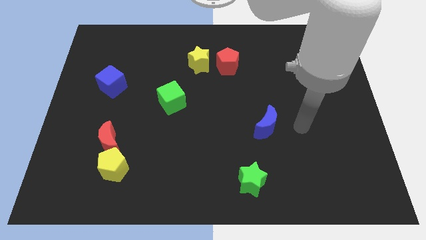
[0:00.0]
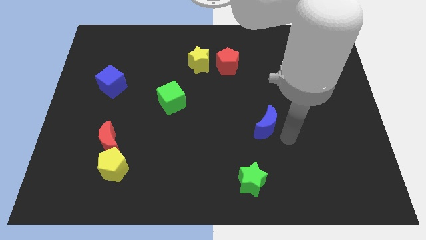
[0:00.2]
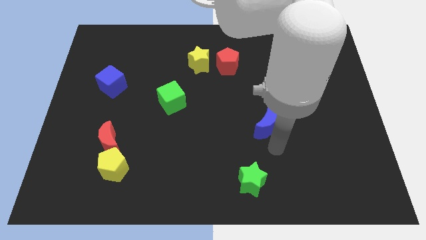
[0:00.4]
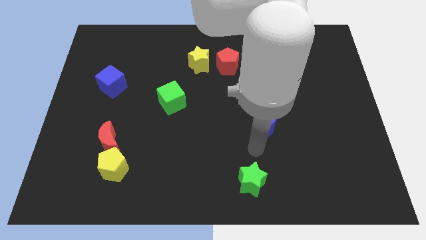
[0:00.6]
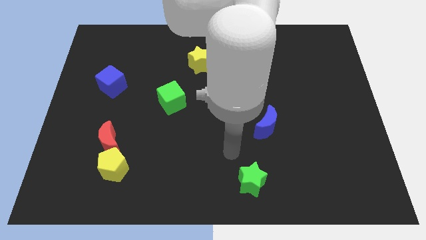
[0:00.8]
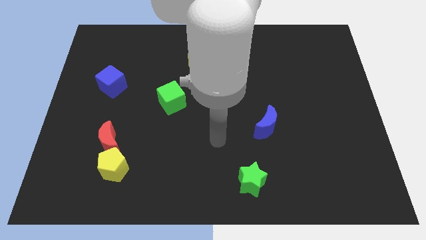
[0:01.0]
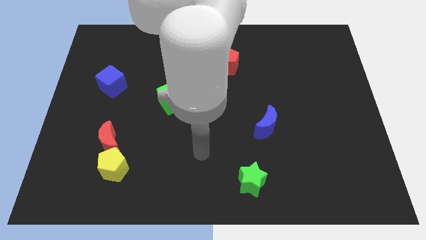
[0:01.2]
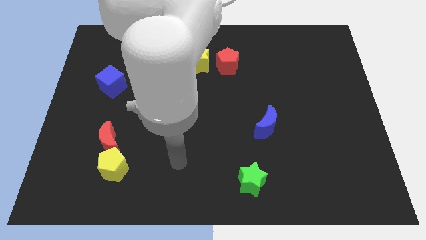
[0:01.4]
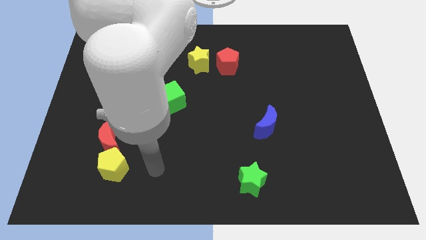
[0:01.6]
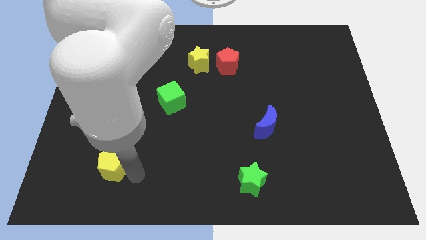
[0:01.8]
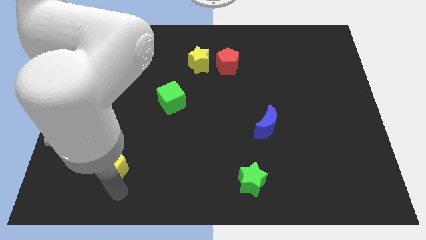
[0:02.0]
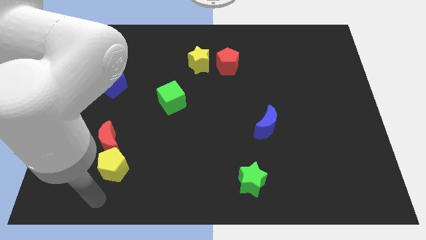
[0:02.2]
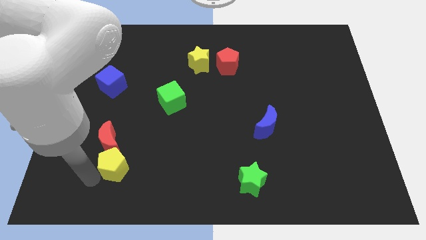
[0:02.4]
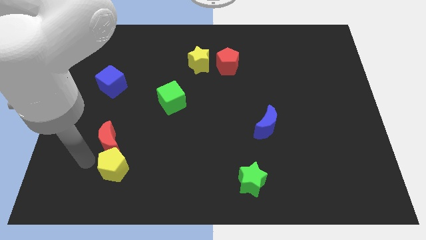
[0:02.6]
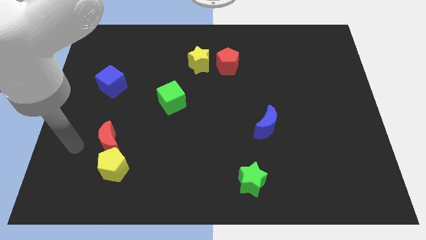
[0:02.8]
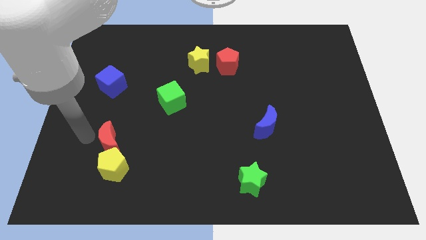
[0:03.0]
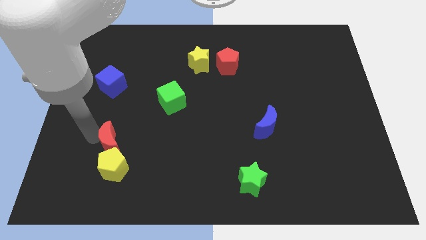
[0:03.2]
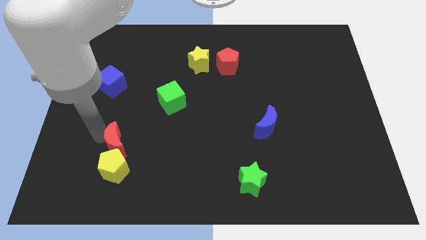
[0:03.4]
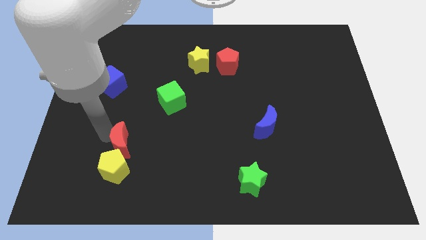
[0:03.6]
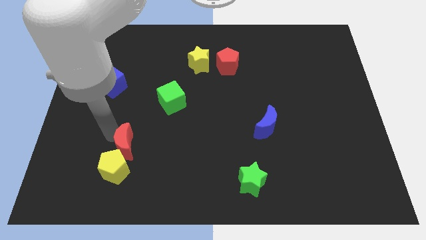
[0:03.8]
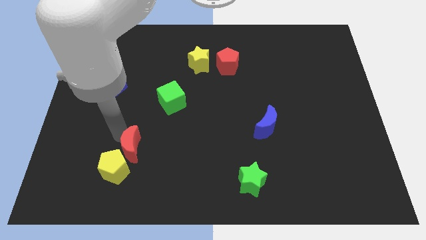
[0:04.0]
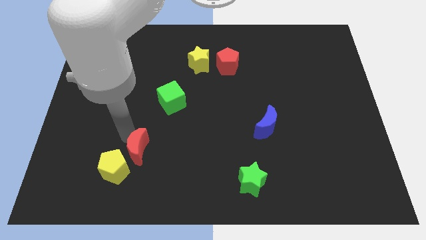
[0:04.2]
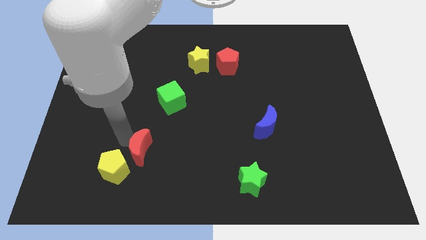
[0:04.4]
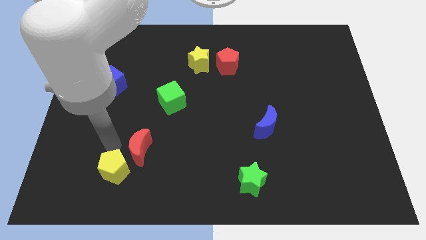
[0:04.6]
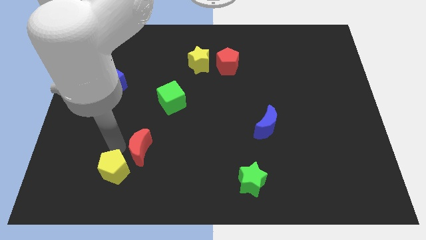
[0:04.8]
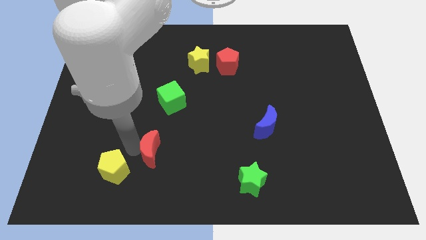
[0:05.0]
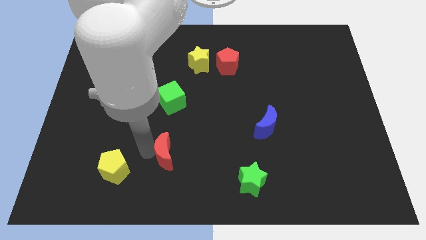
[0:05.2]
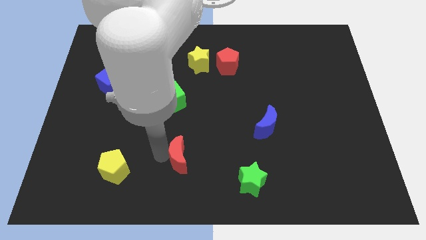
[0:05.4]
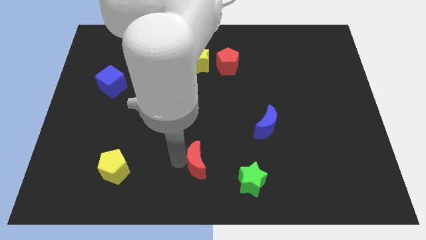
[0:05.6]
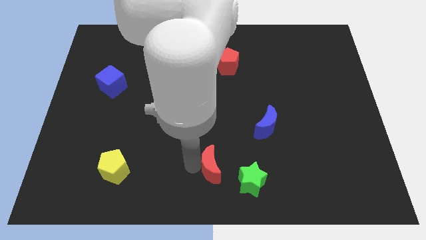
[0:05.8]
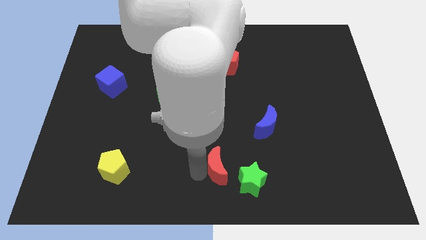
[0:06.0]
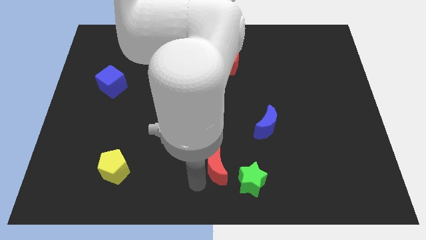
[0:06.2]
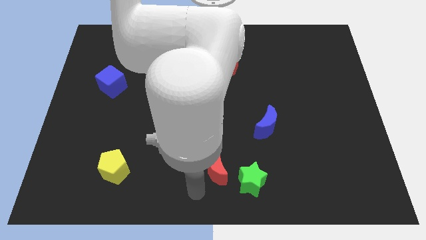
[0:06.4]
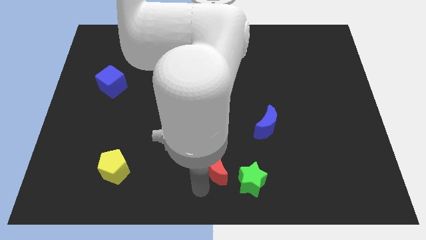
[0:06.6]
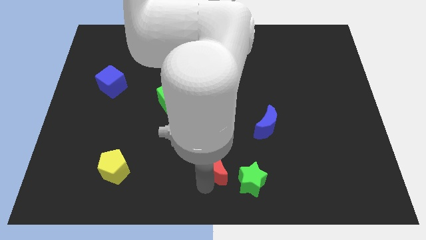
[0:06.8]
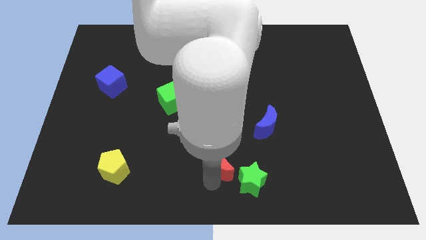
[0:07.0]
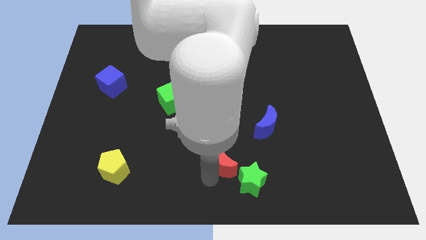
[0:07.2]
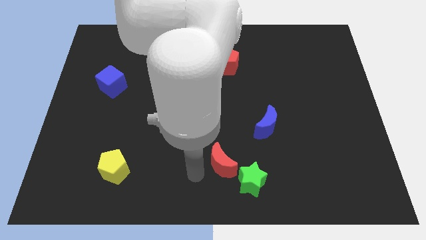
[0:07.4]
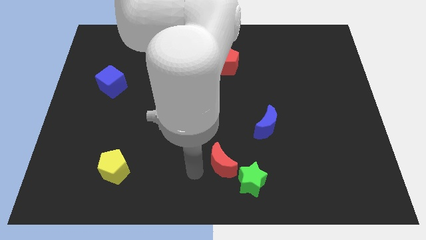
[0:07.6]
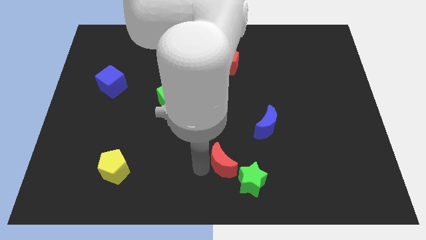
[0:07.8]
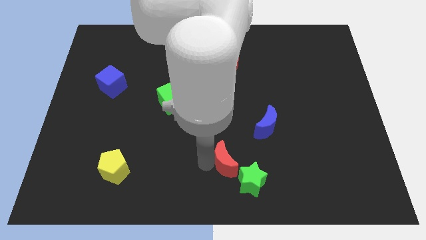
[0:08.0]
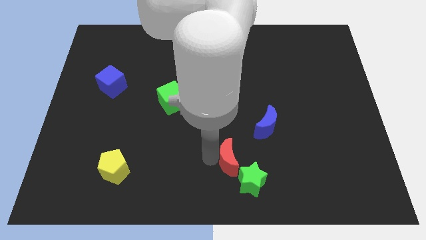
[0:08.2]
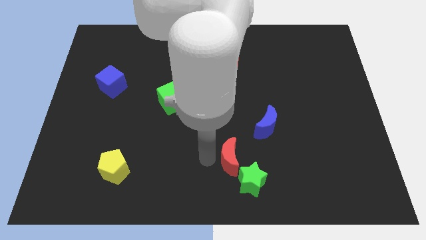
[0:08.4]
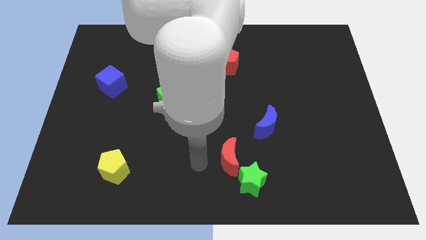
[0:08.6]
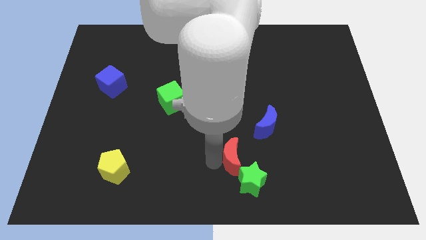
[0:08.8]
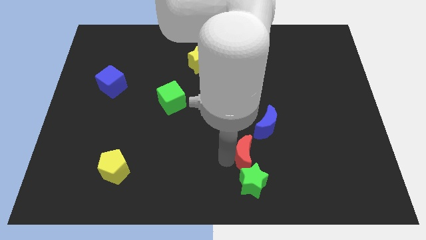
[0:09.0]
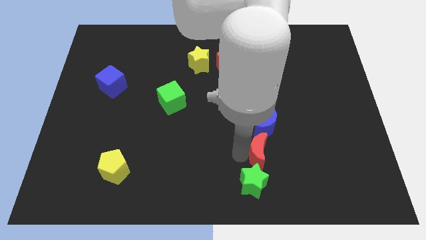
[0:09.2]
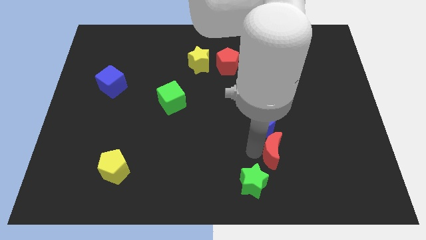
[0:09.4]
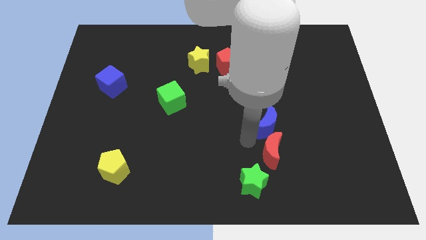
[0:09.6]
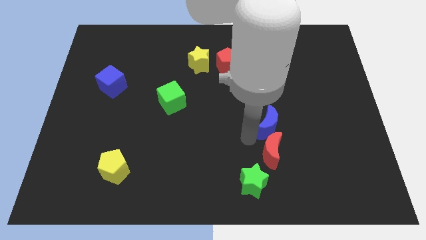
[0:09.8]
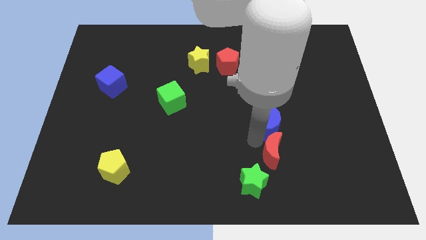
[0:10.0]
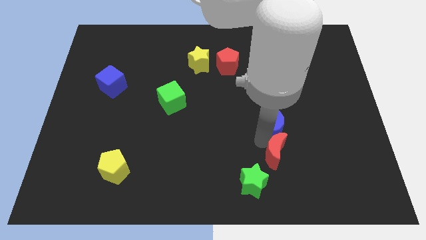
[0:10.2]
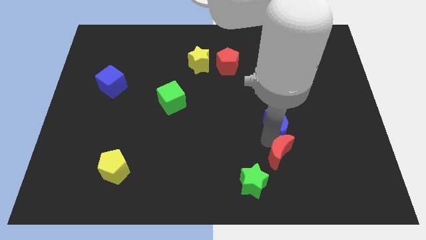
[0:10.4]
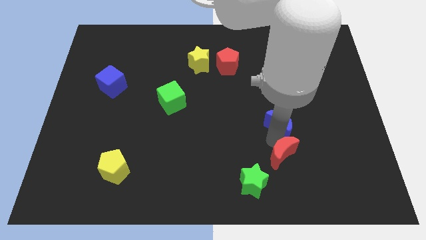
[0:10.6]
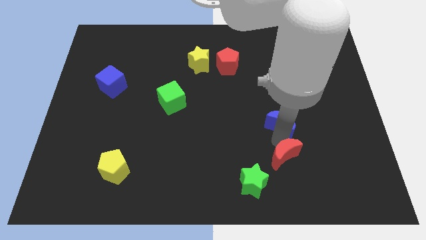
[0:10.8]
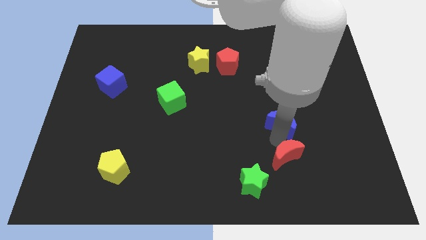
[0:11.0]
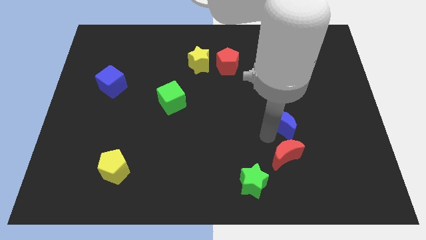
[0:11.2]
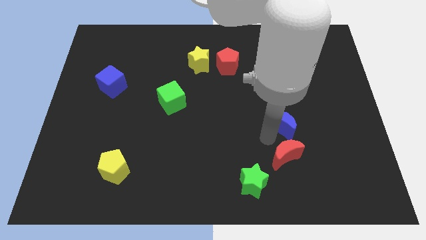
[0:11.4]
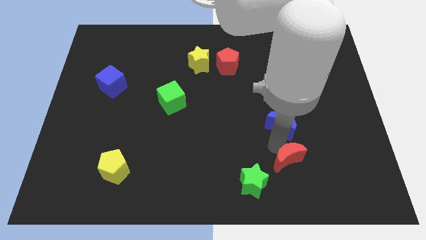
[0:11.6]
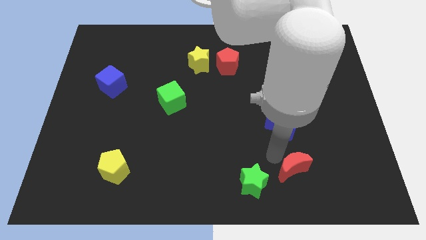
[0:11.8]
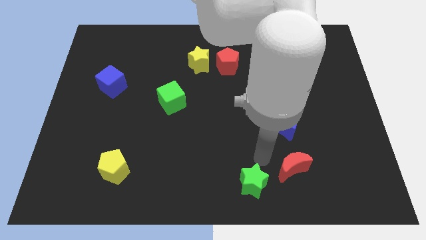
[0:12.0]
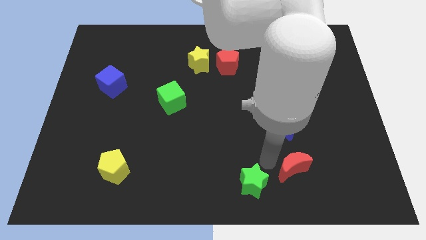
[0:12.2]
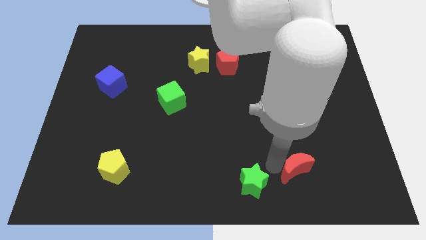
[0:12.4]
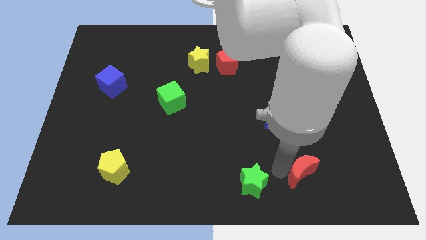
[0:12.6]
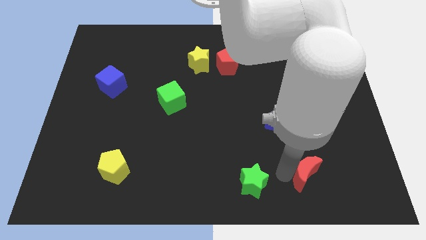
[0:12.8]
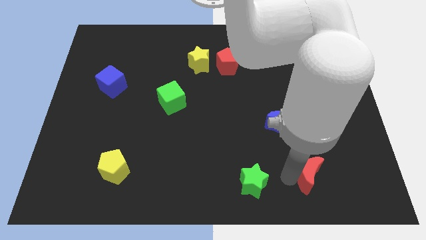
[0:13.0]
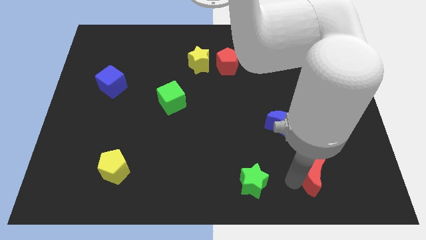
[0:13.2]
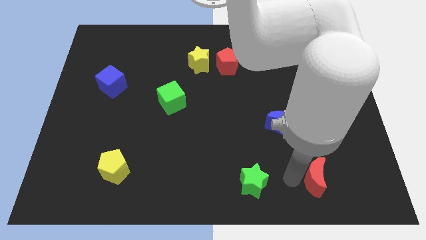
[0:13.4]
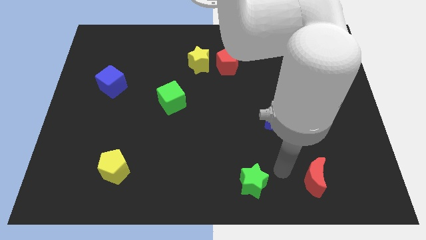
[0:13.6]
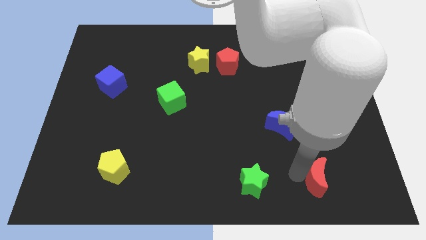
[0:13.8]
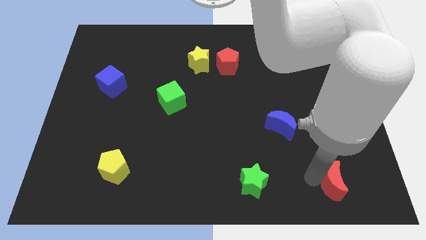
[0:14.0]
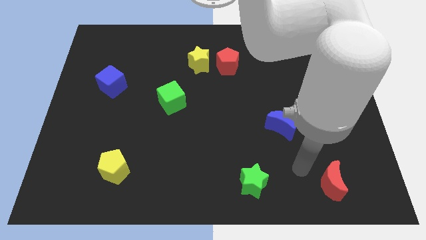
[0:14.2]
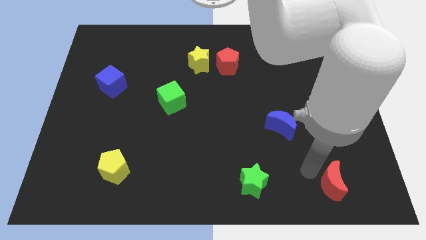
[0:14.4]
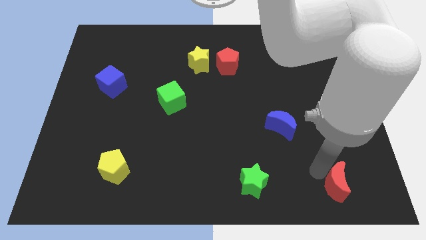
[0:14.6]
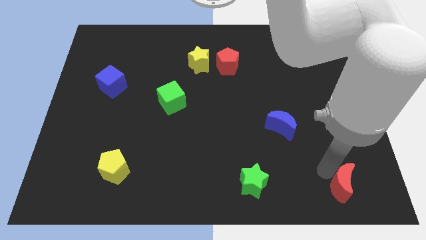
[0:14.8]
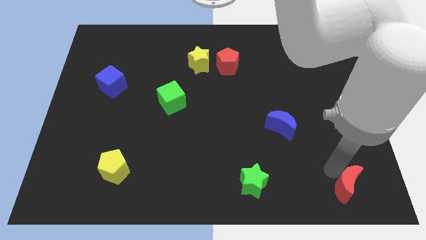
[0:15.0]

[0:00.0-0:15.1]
move the red moon to the bottom right corner
